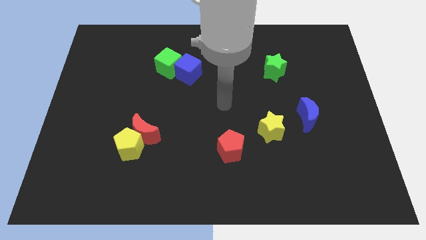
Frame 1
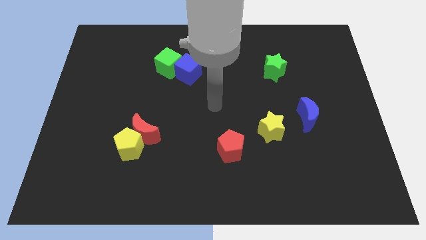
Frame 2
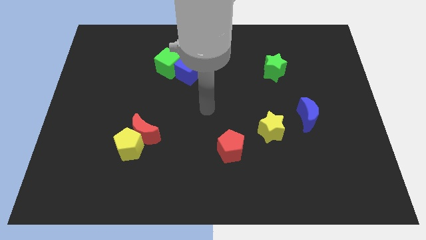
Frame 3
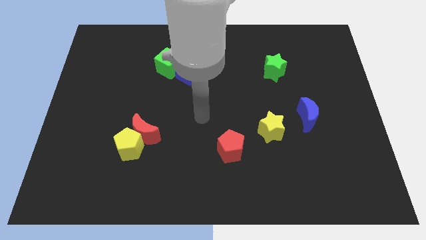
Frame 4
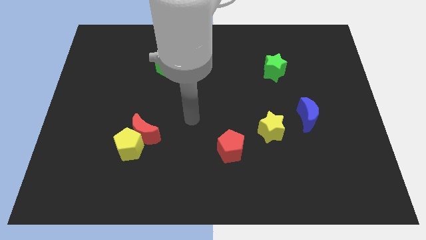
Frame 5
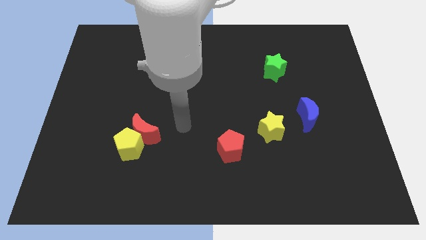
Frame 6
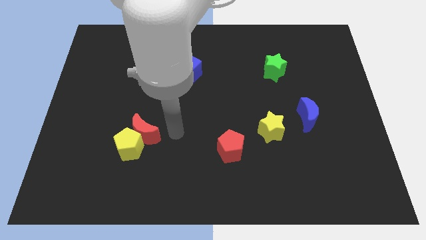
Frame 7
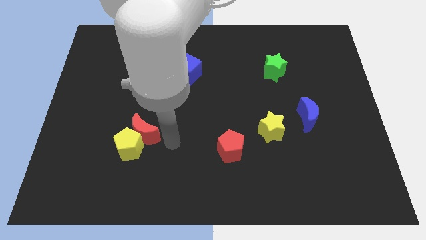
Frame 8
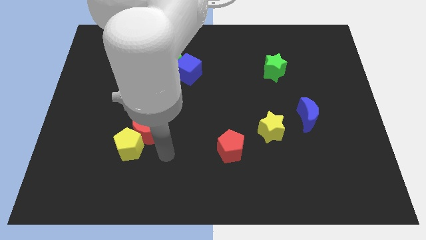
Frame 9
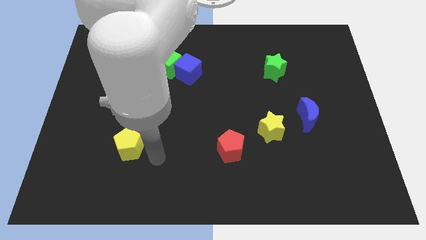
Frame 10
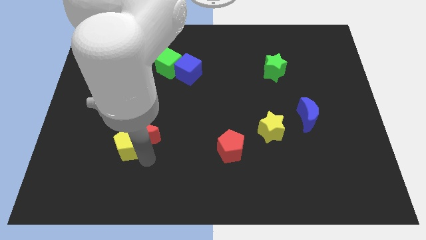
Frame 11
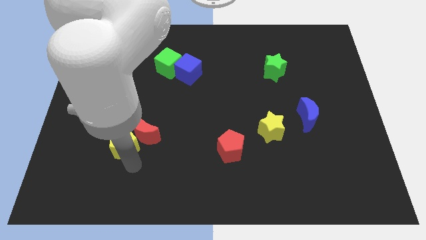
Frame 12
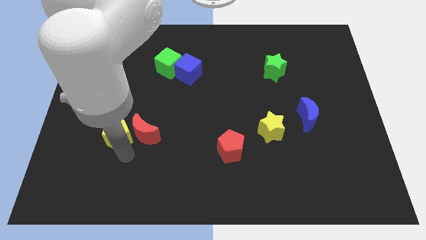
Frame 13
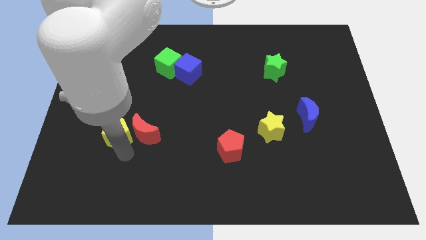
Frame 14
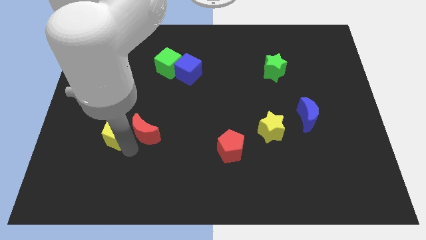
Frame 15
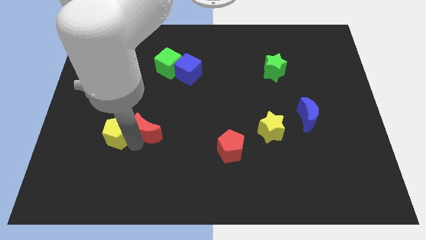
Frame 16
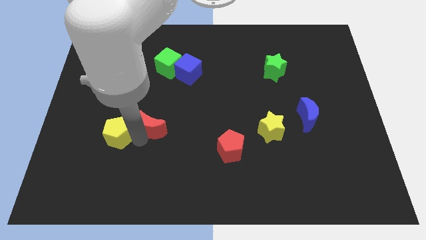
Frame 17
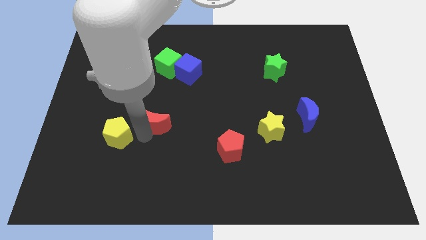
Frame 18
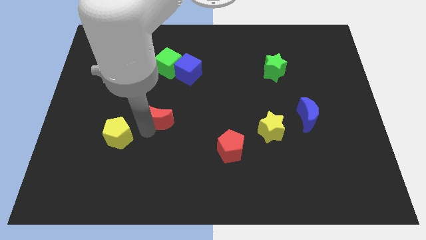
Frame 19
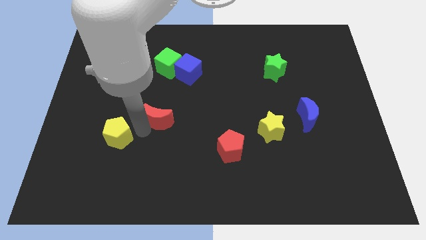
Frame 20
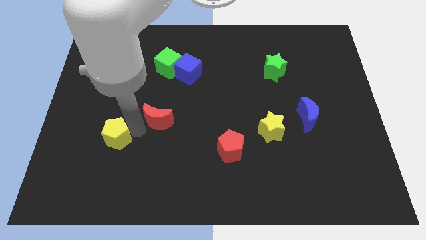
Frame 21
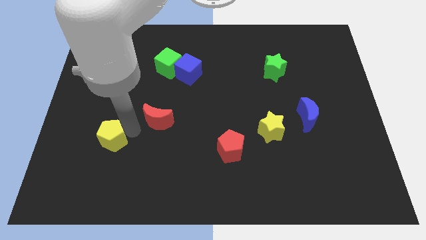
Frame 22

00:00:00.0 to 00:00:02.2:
separate the red moon from the yellow pentagon

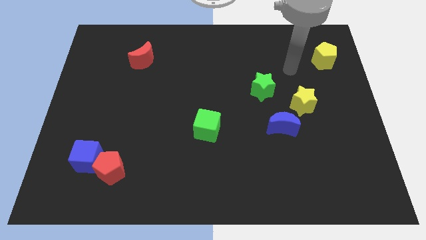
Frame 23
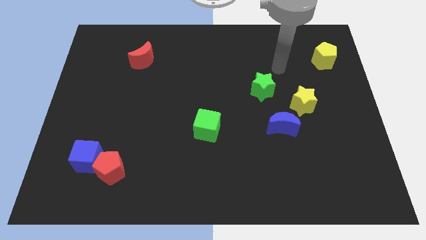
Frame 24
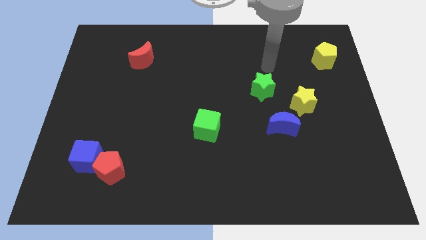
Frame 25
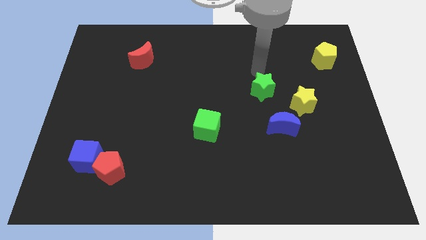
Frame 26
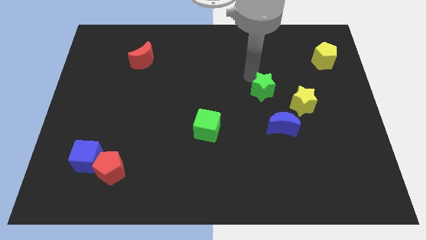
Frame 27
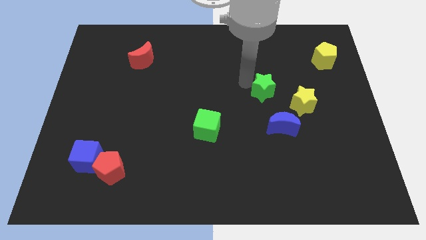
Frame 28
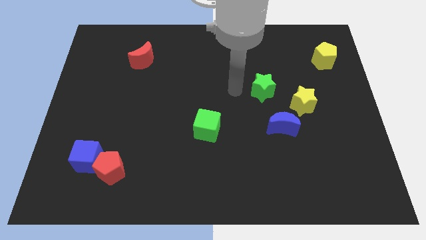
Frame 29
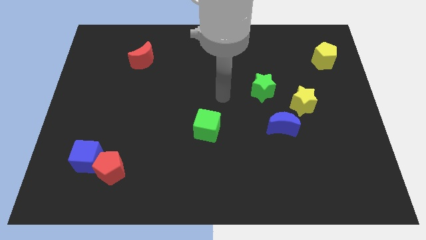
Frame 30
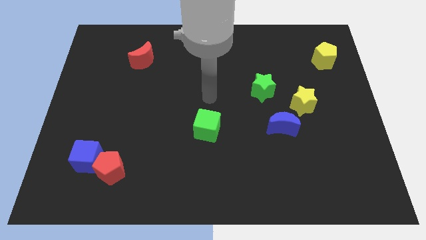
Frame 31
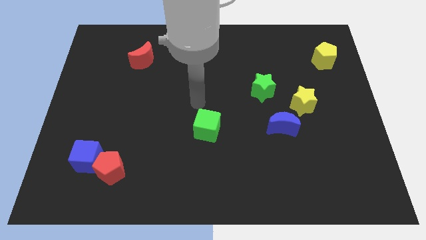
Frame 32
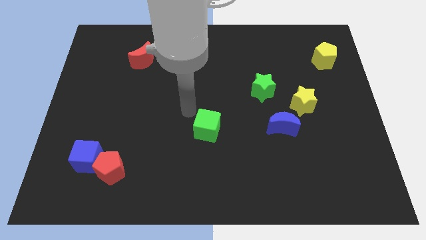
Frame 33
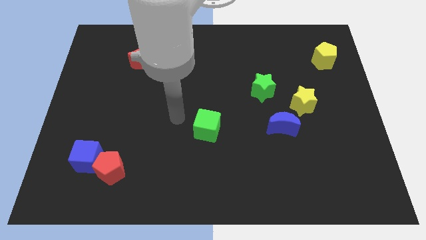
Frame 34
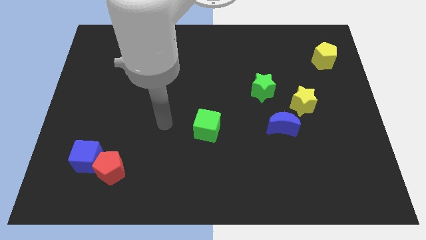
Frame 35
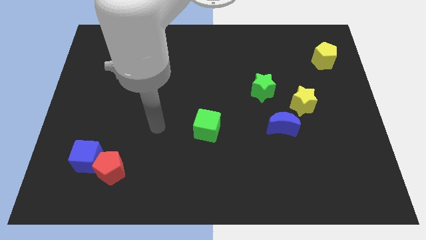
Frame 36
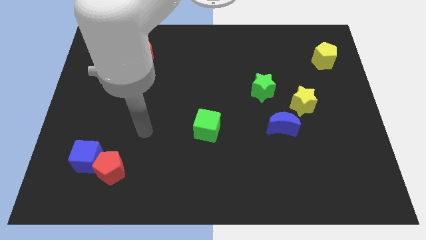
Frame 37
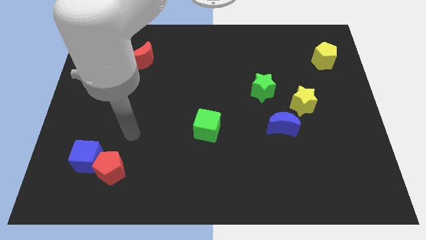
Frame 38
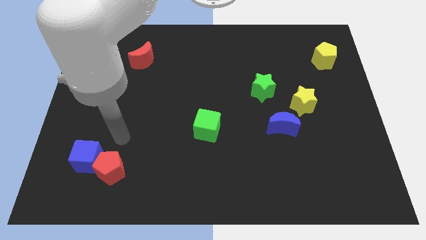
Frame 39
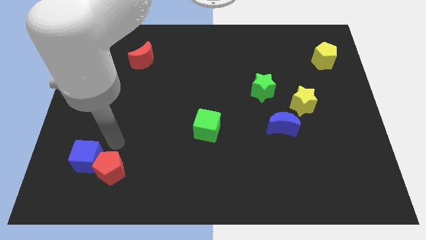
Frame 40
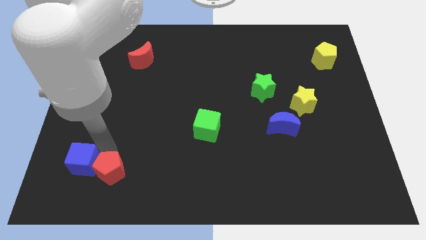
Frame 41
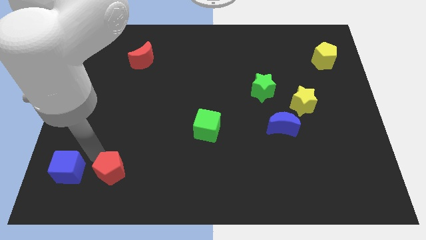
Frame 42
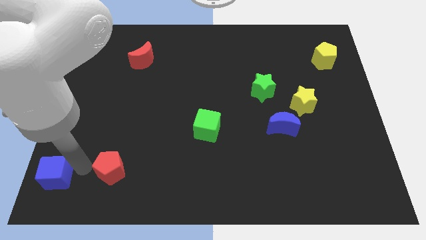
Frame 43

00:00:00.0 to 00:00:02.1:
move the red pentagon away from the blue cube

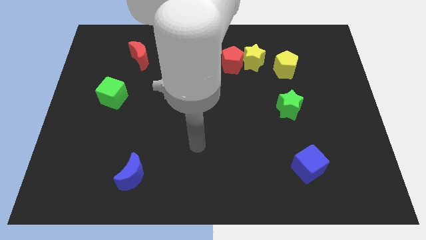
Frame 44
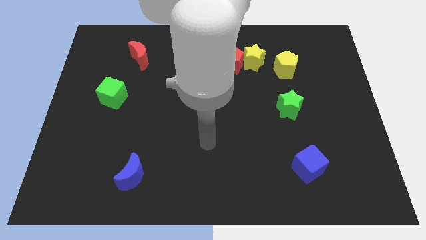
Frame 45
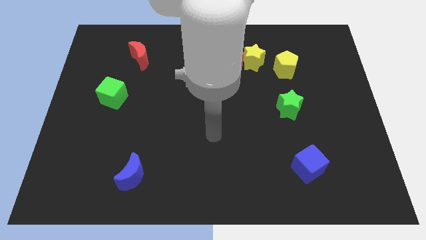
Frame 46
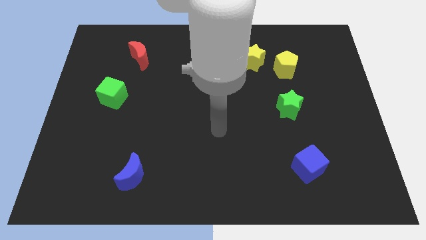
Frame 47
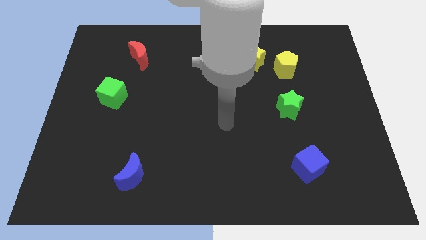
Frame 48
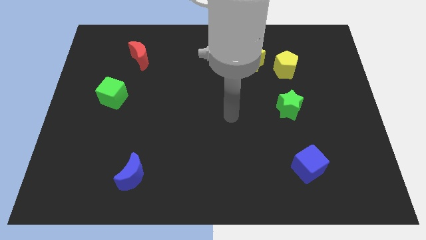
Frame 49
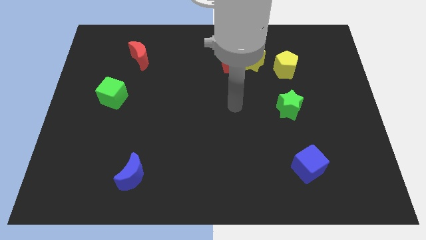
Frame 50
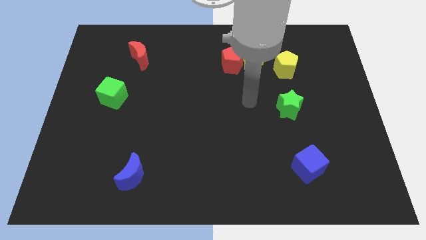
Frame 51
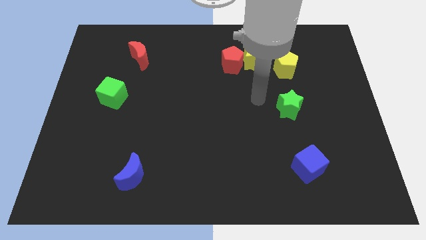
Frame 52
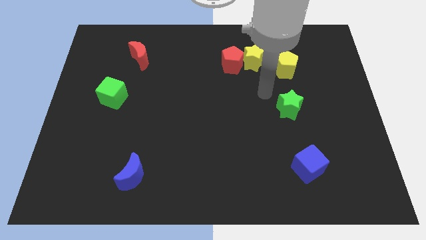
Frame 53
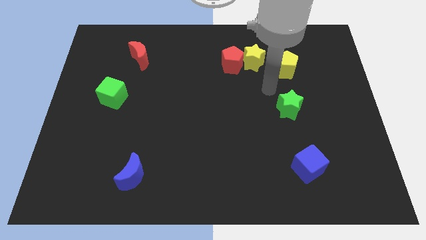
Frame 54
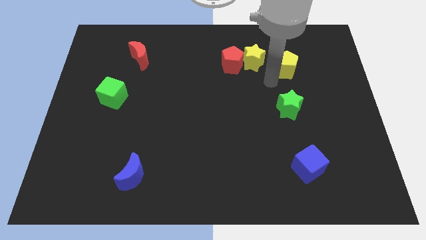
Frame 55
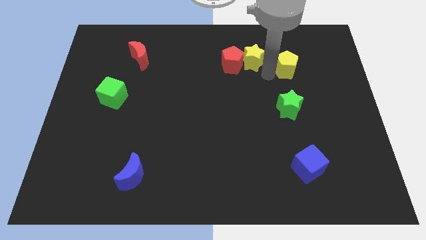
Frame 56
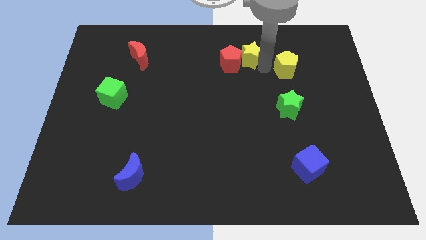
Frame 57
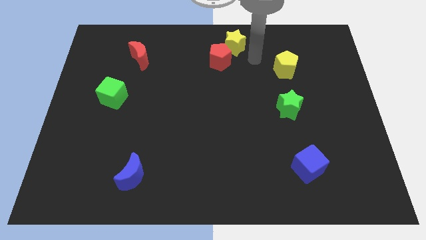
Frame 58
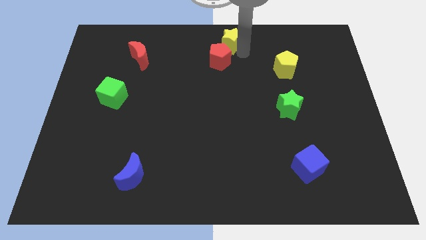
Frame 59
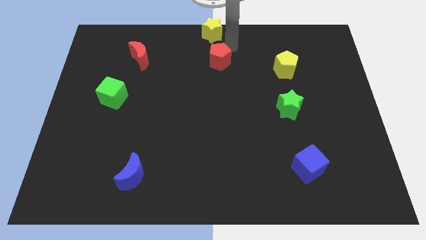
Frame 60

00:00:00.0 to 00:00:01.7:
move the red pentagon away from the yellow star

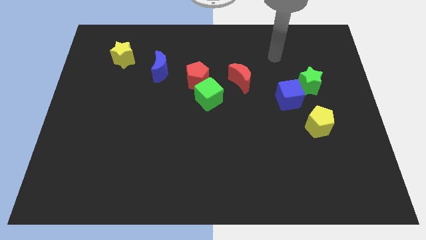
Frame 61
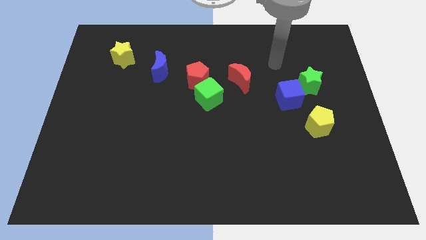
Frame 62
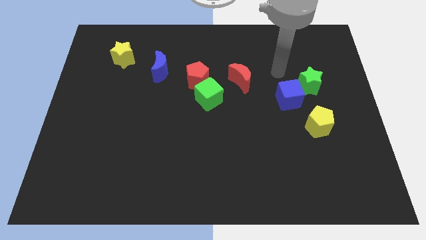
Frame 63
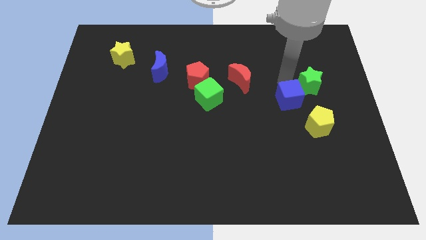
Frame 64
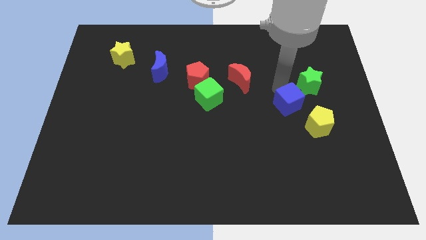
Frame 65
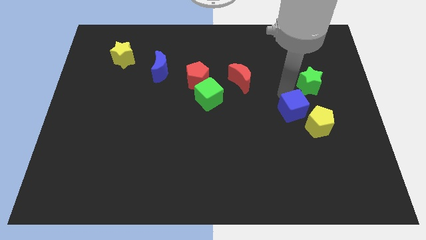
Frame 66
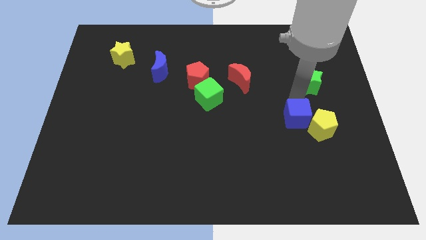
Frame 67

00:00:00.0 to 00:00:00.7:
move the green star away from the blue cube

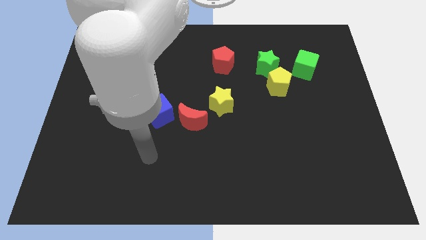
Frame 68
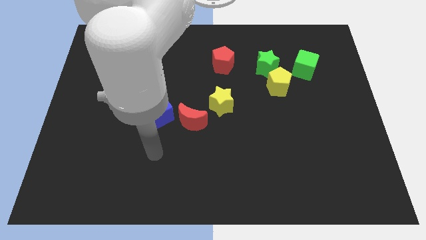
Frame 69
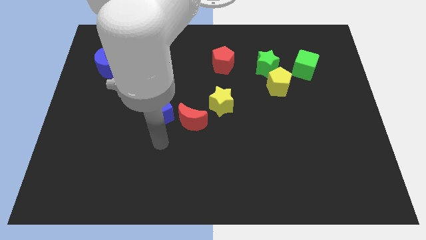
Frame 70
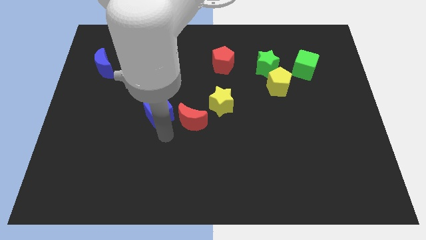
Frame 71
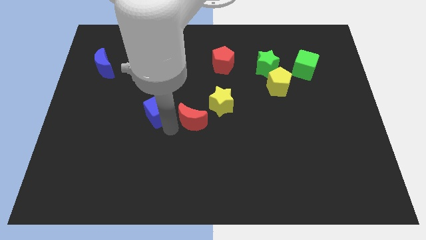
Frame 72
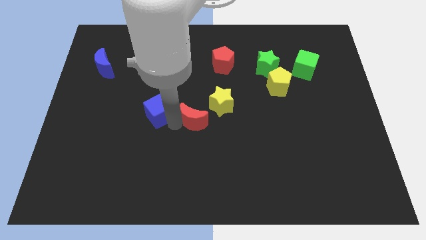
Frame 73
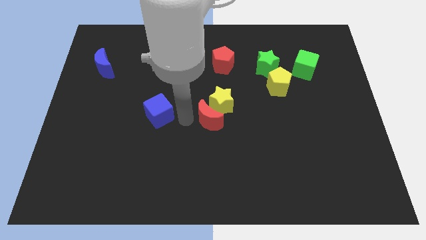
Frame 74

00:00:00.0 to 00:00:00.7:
separate the blue cube from the red moon

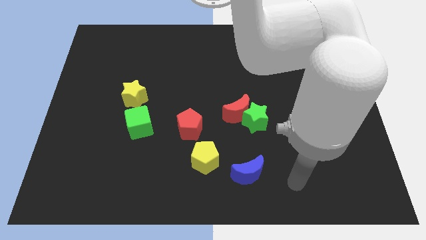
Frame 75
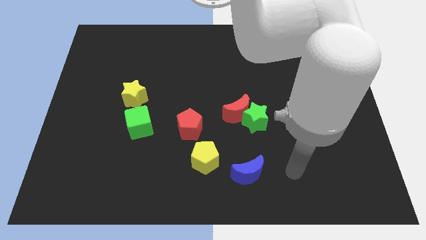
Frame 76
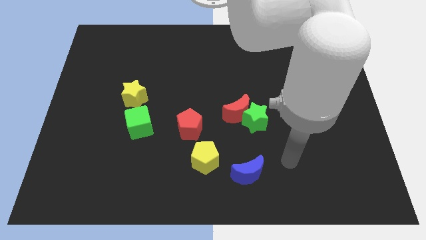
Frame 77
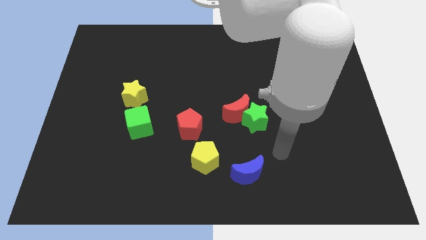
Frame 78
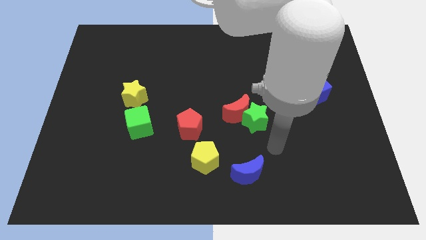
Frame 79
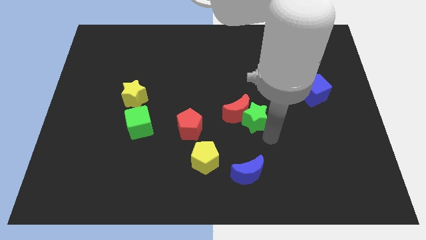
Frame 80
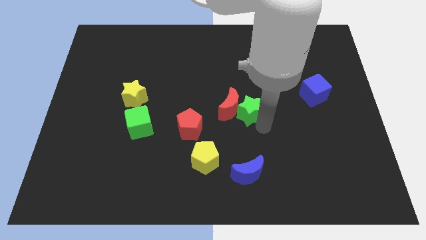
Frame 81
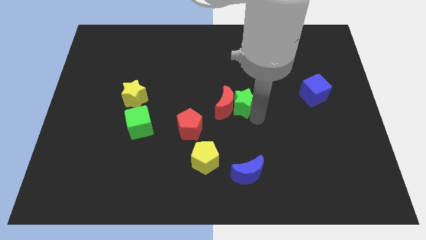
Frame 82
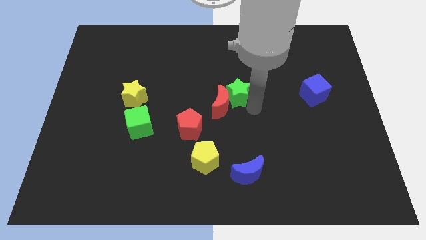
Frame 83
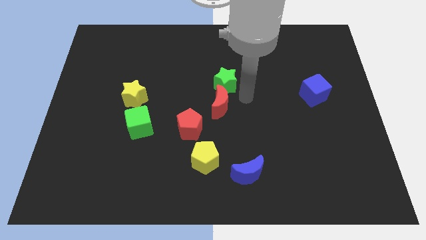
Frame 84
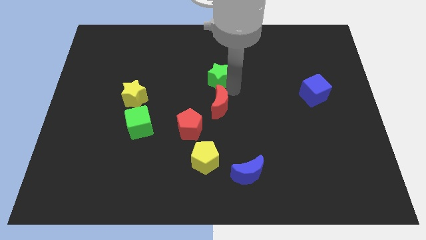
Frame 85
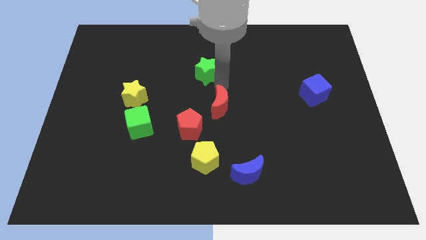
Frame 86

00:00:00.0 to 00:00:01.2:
move the red moon away from the green star

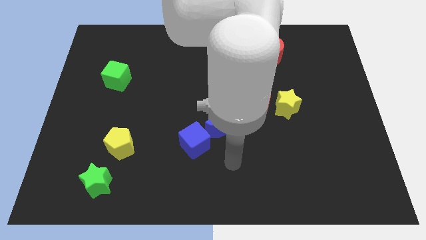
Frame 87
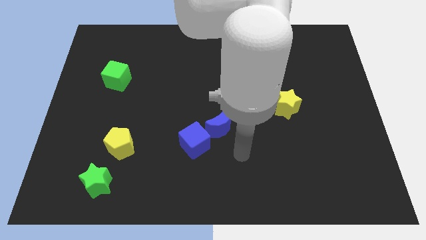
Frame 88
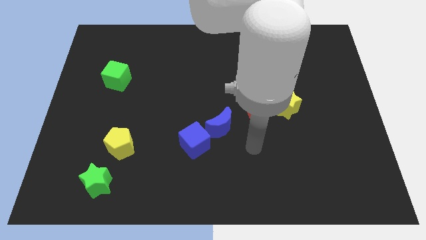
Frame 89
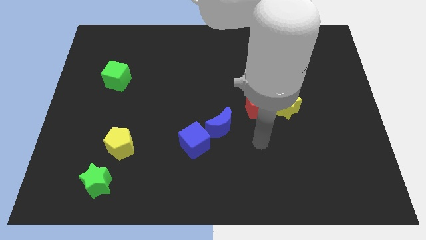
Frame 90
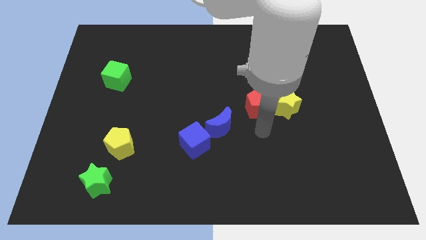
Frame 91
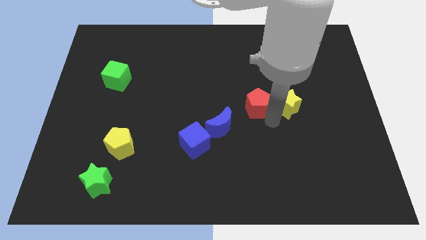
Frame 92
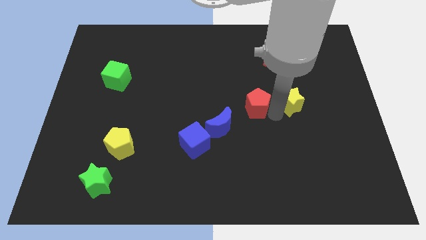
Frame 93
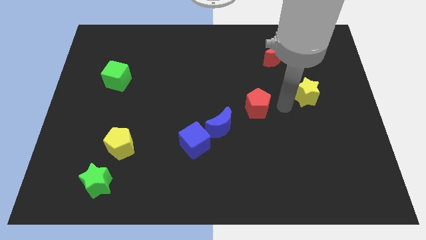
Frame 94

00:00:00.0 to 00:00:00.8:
separate the red pentagon from the yellow star

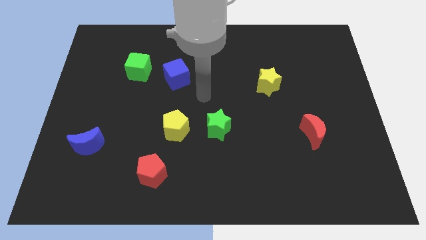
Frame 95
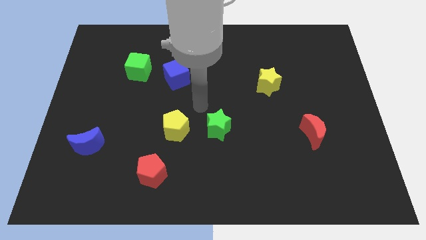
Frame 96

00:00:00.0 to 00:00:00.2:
separate the green star from the yellow pentagon
